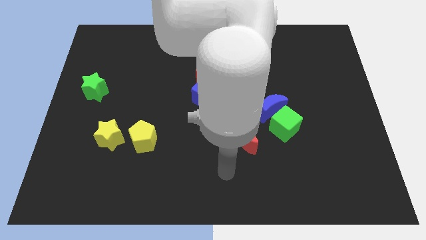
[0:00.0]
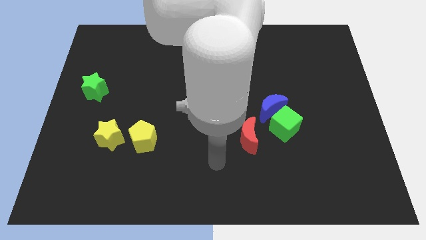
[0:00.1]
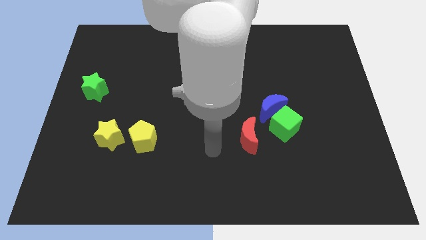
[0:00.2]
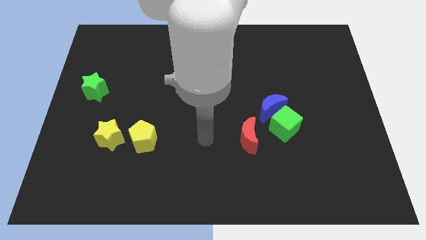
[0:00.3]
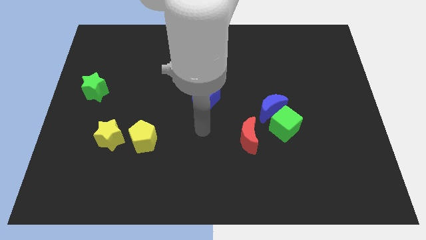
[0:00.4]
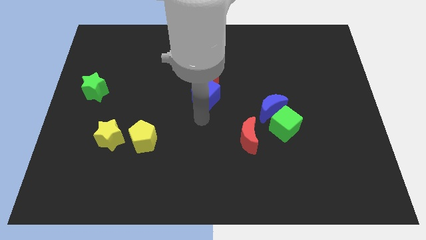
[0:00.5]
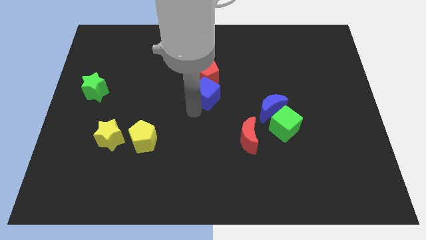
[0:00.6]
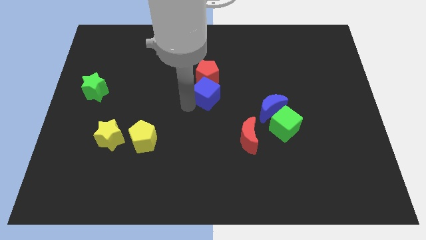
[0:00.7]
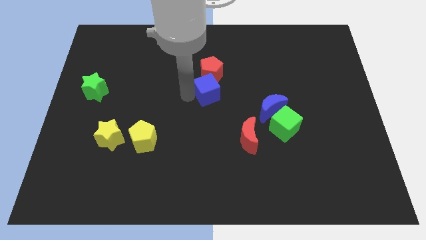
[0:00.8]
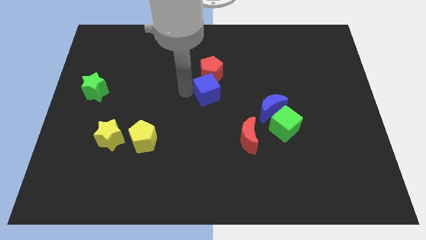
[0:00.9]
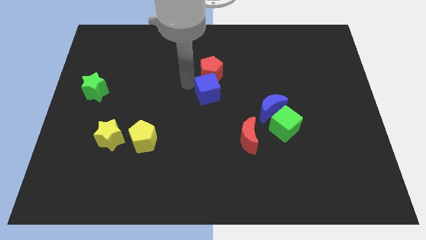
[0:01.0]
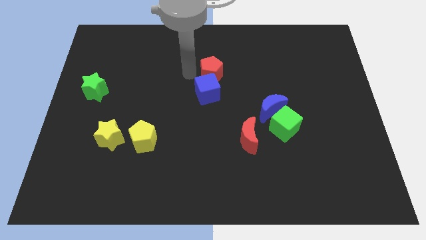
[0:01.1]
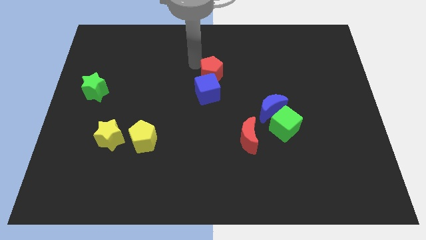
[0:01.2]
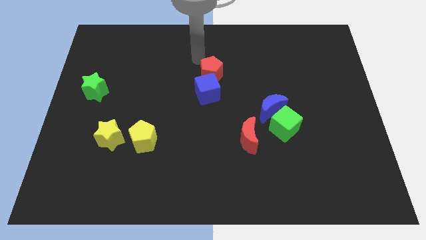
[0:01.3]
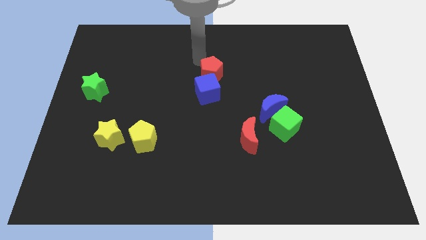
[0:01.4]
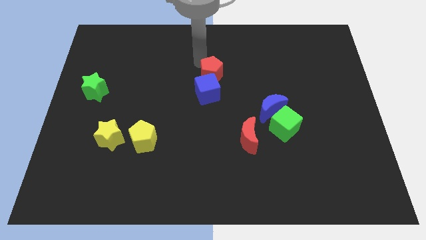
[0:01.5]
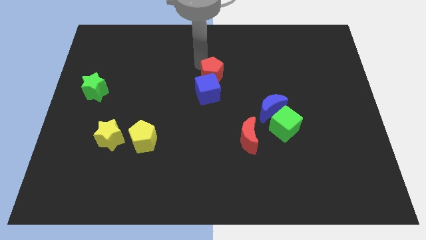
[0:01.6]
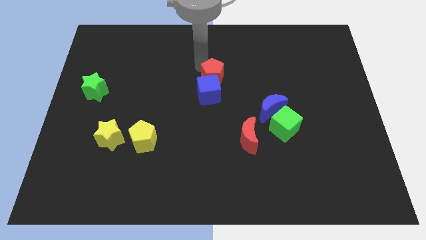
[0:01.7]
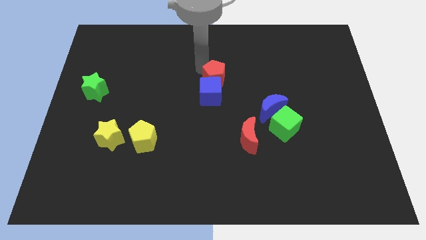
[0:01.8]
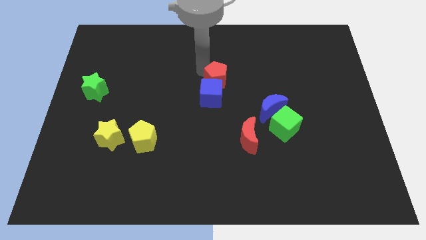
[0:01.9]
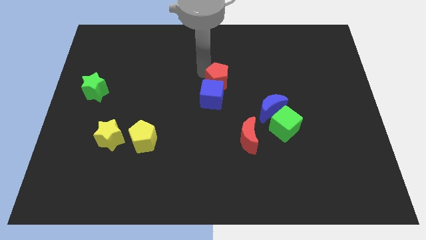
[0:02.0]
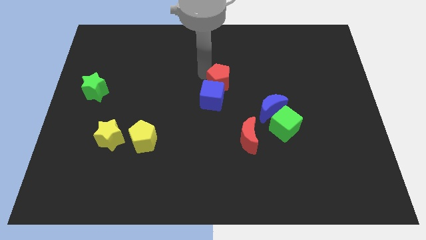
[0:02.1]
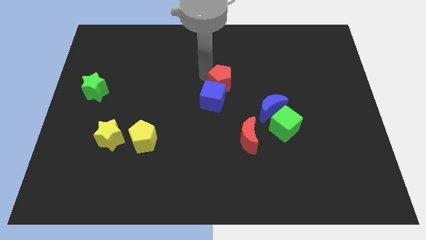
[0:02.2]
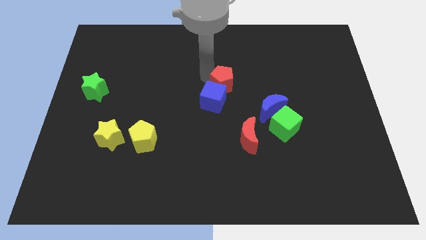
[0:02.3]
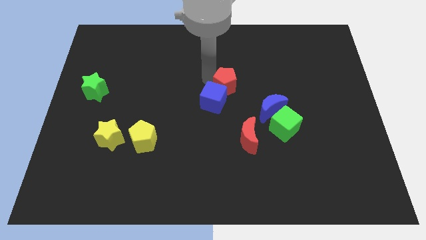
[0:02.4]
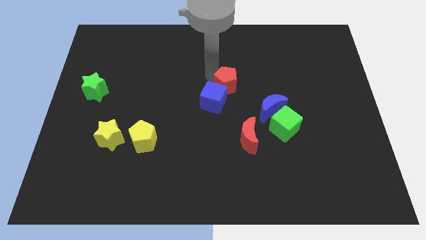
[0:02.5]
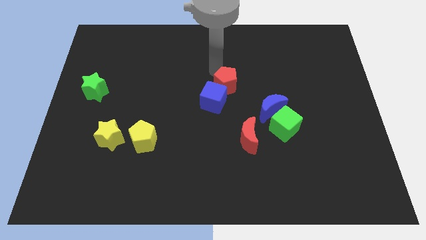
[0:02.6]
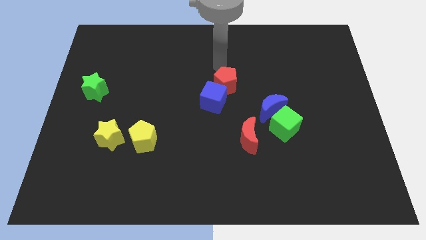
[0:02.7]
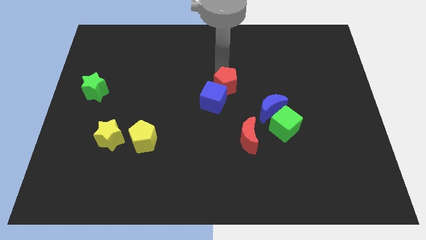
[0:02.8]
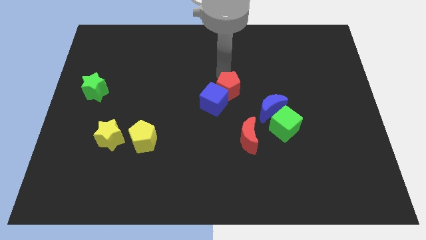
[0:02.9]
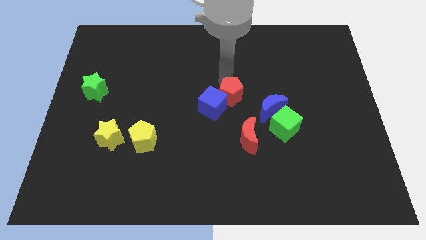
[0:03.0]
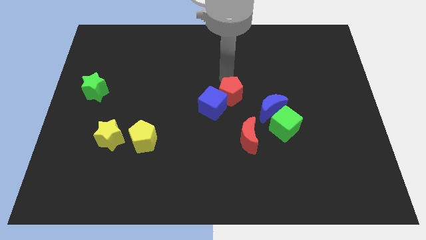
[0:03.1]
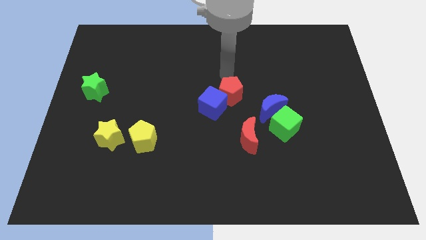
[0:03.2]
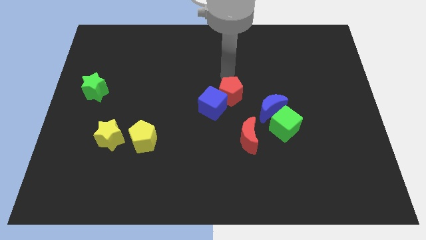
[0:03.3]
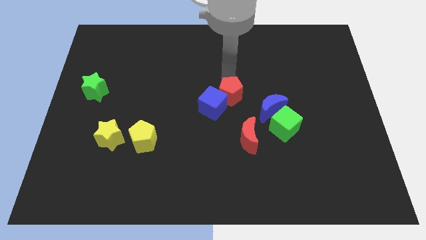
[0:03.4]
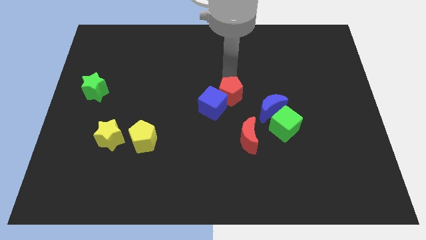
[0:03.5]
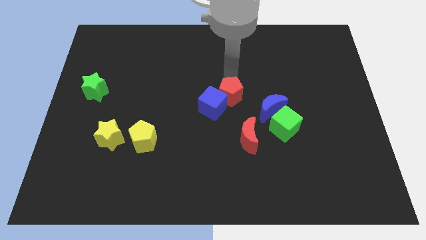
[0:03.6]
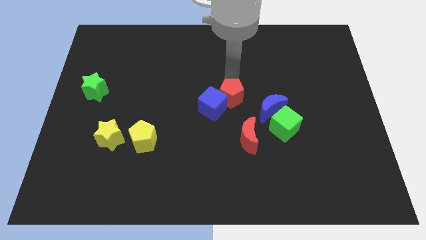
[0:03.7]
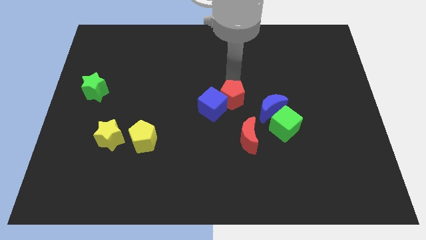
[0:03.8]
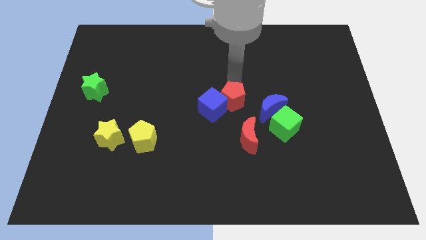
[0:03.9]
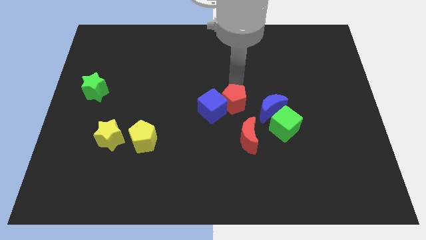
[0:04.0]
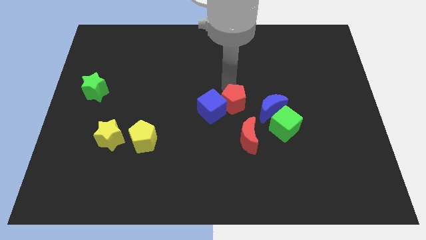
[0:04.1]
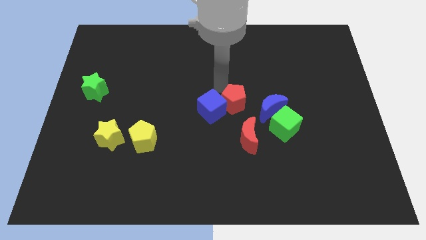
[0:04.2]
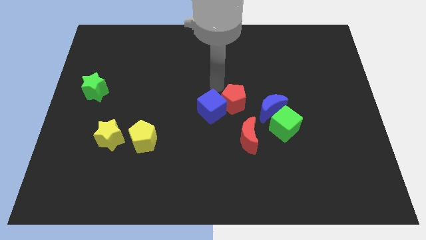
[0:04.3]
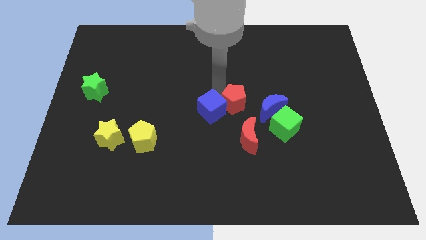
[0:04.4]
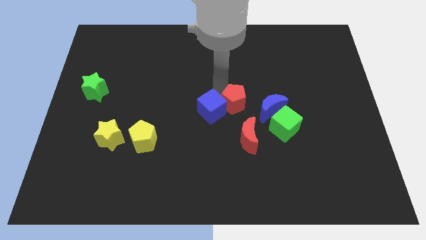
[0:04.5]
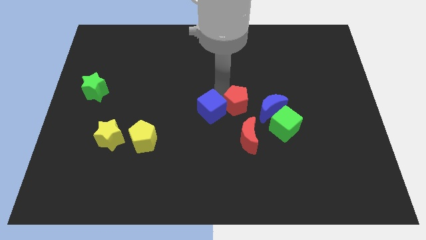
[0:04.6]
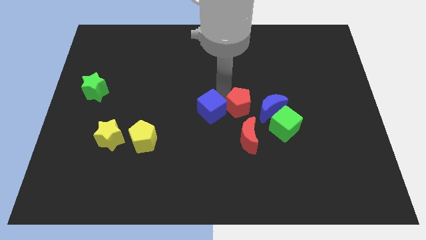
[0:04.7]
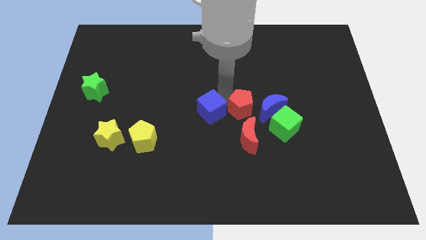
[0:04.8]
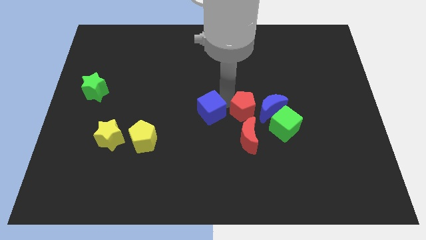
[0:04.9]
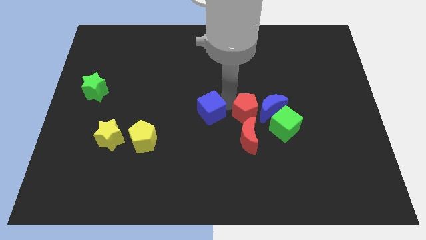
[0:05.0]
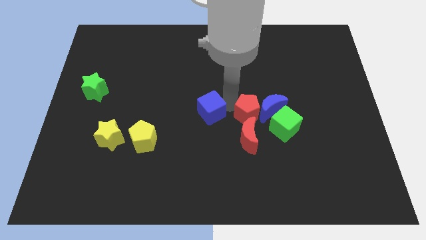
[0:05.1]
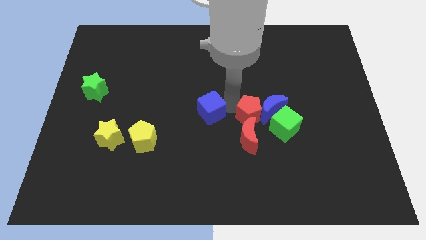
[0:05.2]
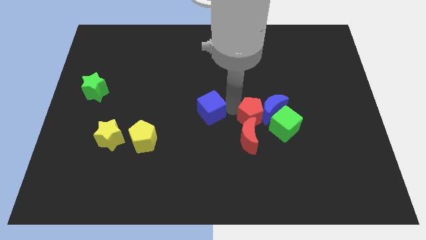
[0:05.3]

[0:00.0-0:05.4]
slide the red pentagon to the red moon

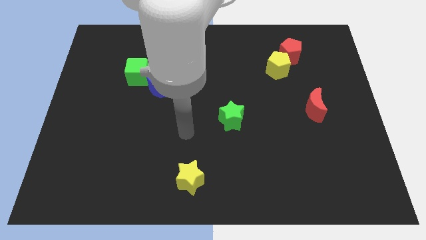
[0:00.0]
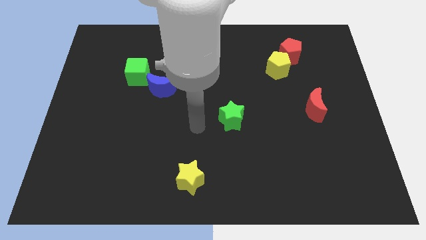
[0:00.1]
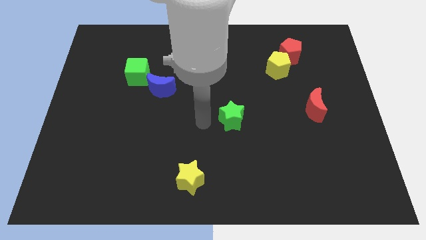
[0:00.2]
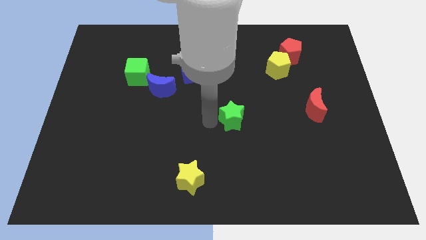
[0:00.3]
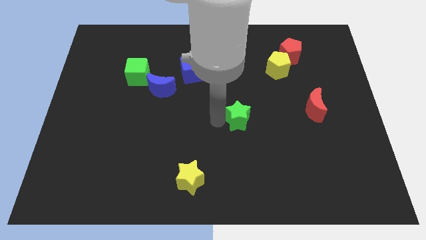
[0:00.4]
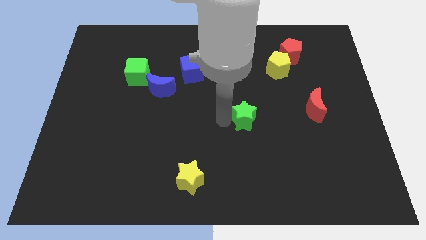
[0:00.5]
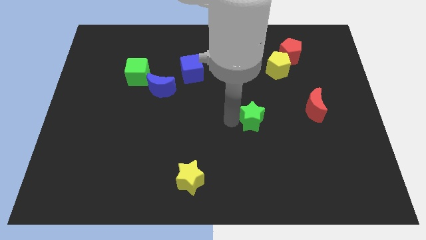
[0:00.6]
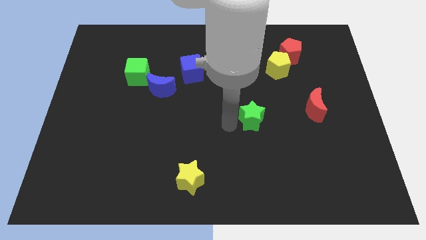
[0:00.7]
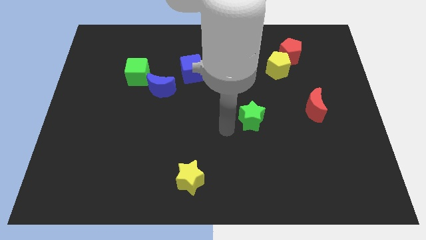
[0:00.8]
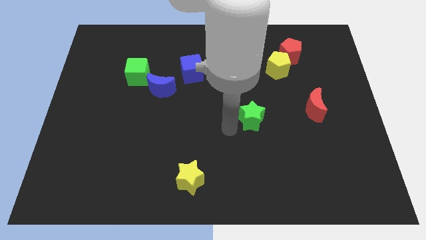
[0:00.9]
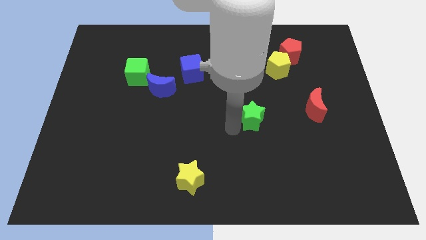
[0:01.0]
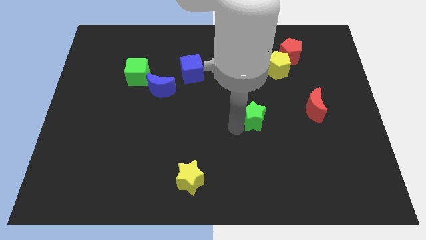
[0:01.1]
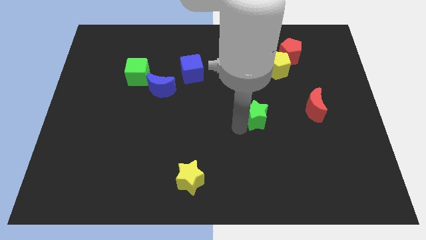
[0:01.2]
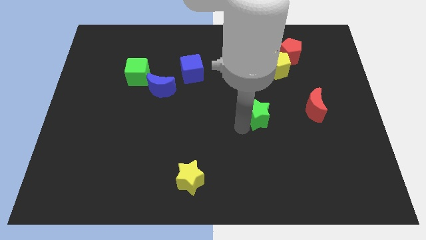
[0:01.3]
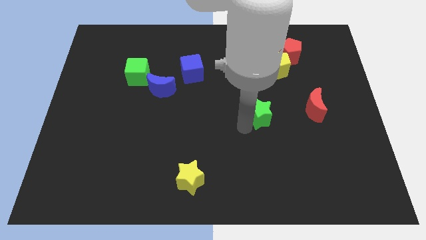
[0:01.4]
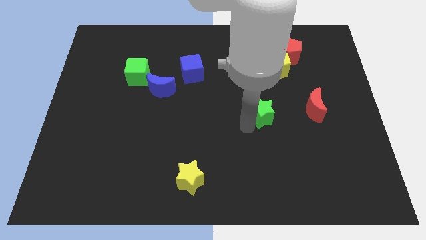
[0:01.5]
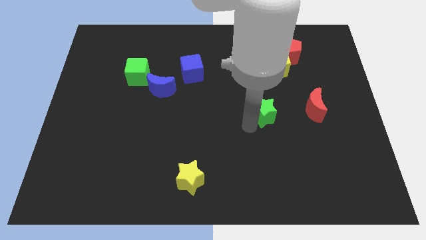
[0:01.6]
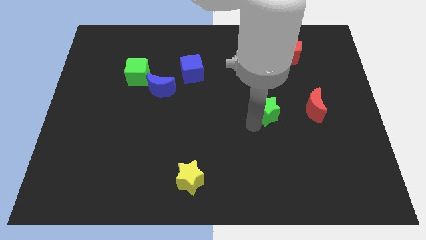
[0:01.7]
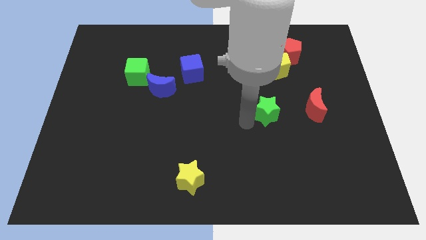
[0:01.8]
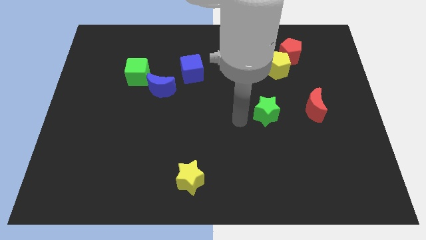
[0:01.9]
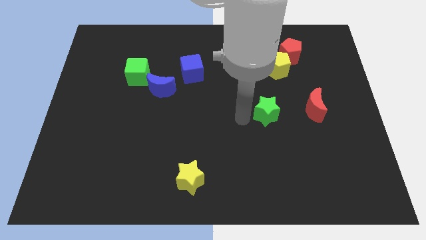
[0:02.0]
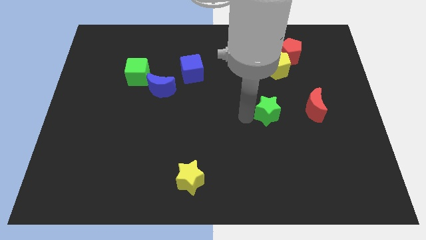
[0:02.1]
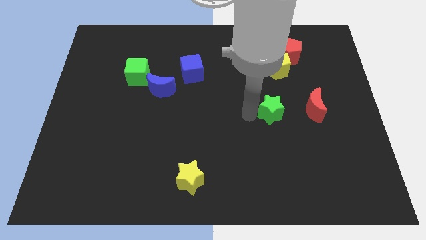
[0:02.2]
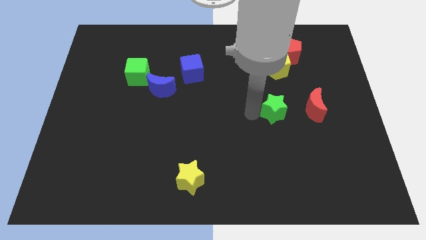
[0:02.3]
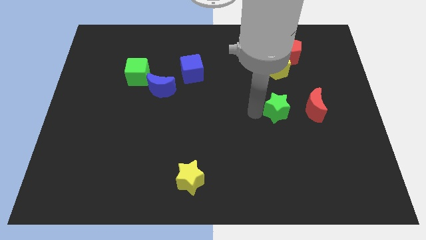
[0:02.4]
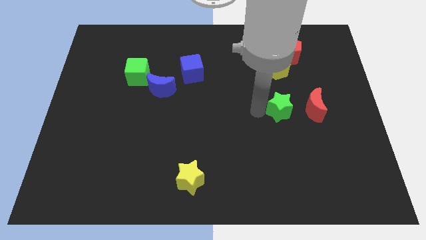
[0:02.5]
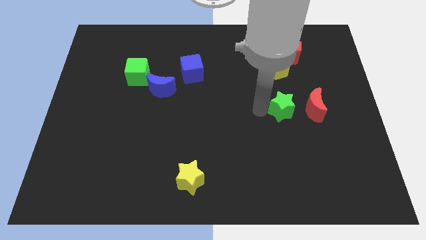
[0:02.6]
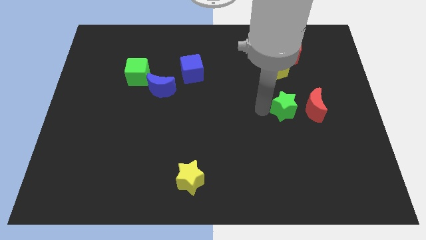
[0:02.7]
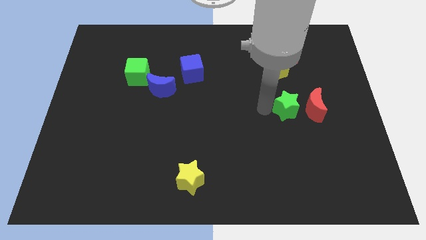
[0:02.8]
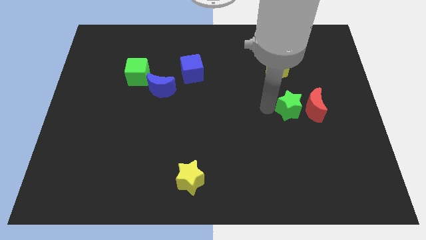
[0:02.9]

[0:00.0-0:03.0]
slide the green star close to the red moon
